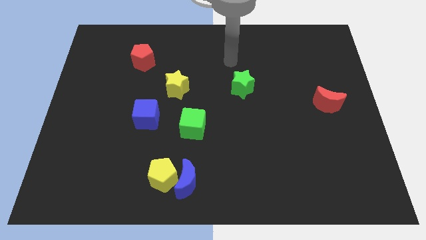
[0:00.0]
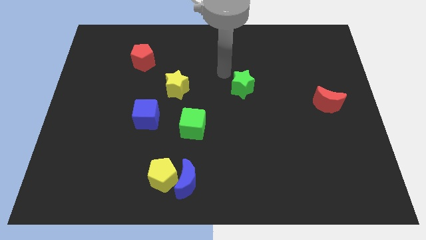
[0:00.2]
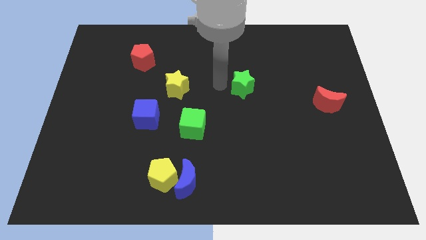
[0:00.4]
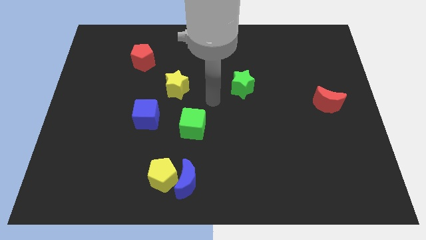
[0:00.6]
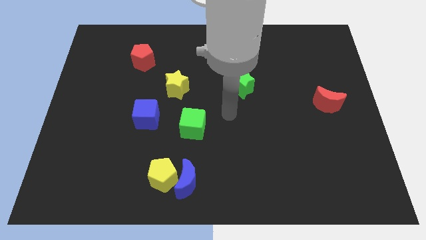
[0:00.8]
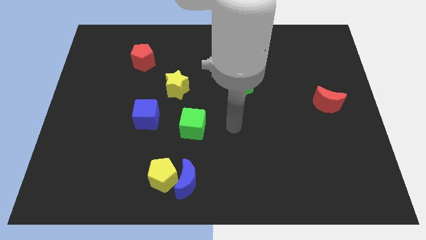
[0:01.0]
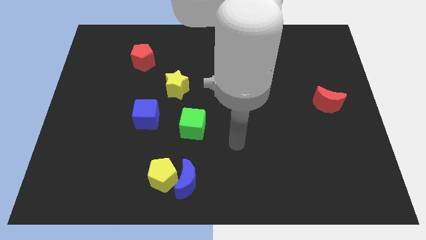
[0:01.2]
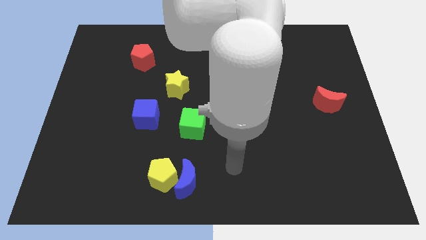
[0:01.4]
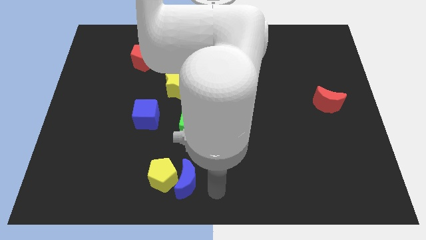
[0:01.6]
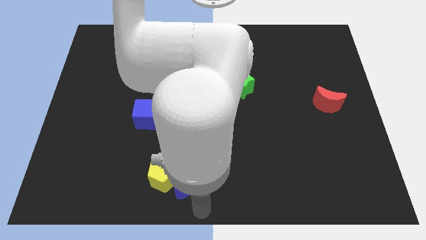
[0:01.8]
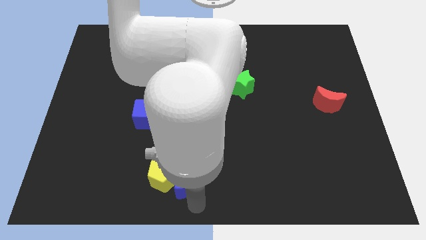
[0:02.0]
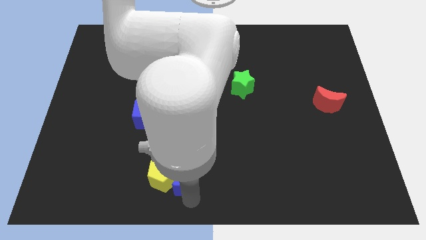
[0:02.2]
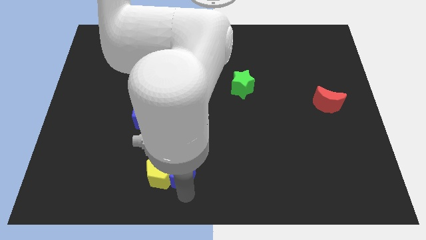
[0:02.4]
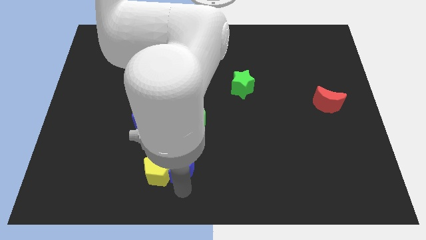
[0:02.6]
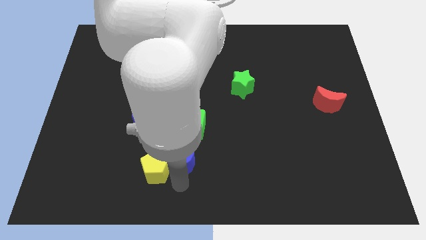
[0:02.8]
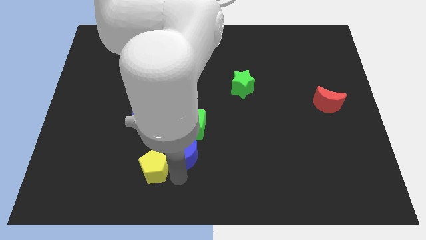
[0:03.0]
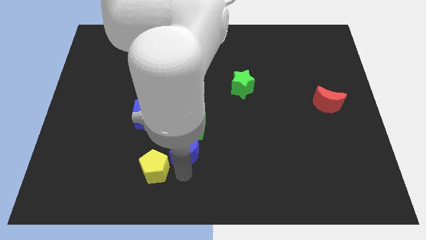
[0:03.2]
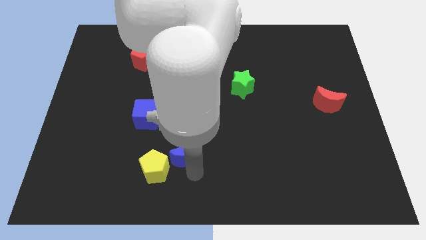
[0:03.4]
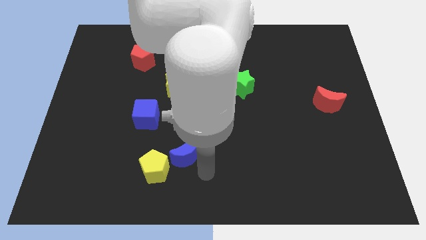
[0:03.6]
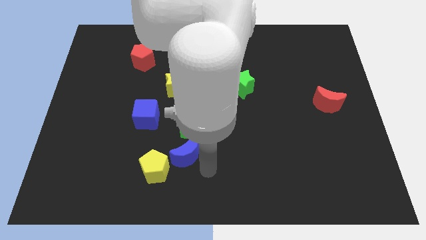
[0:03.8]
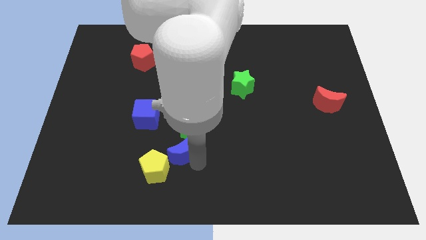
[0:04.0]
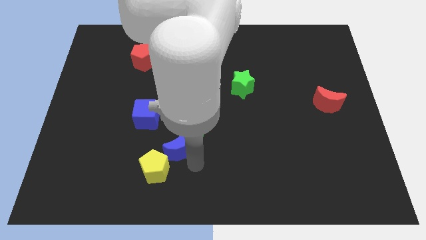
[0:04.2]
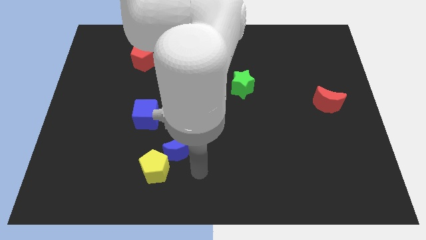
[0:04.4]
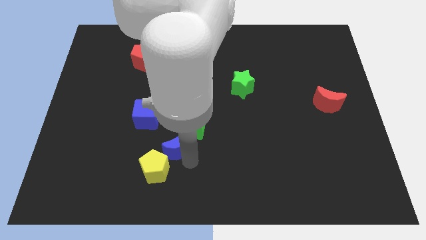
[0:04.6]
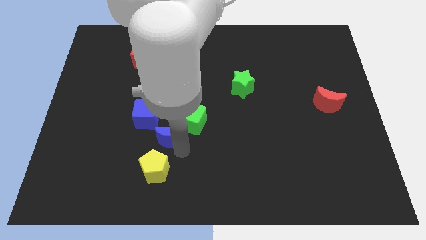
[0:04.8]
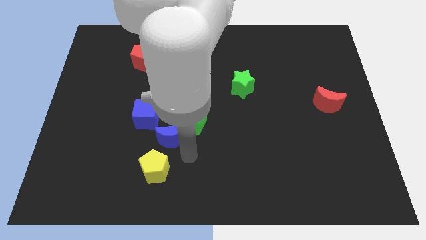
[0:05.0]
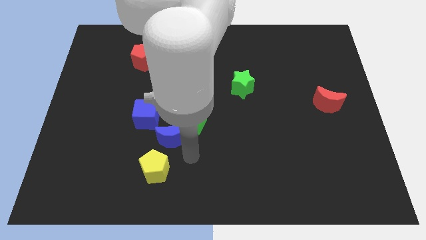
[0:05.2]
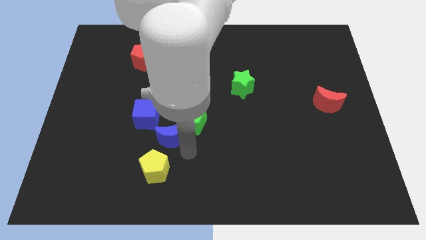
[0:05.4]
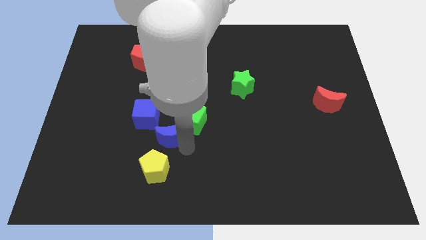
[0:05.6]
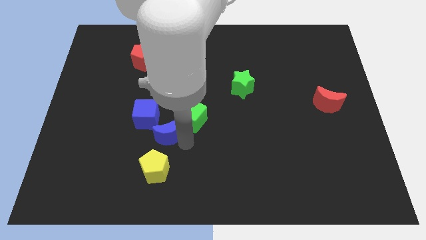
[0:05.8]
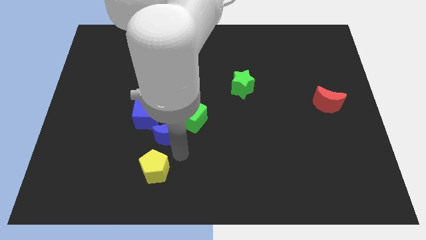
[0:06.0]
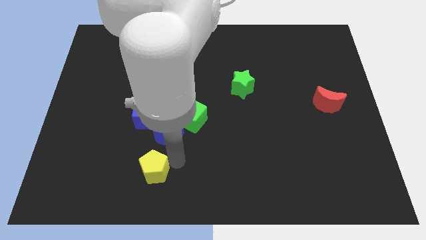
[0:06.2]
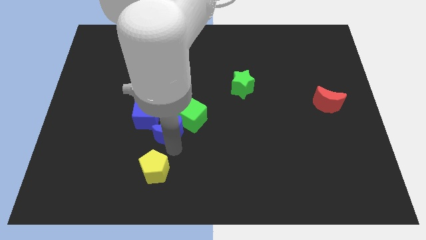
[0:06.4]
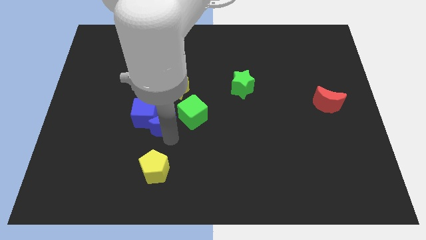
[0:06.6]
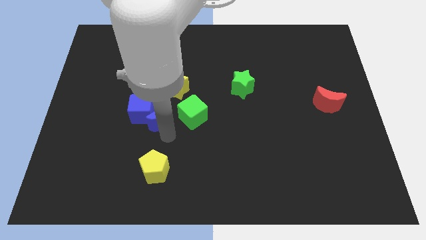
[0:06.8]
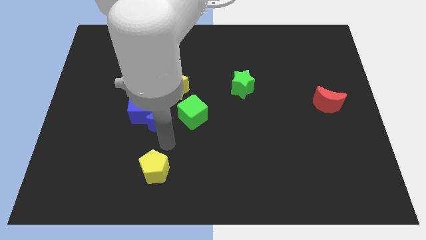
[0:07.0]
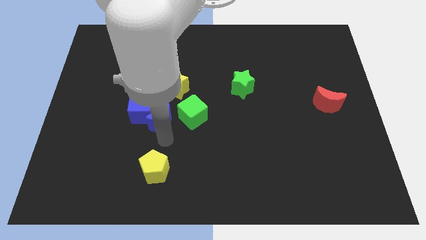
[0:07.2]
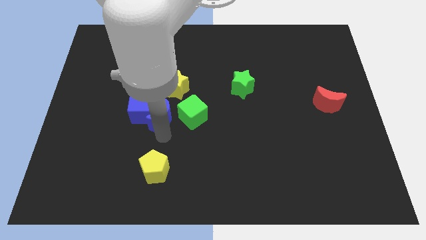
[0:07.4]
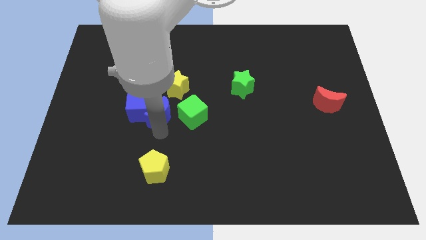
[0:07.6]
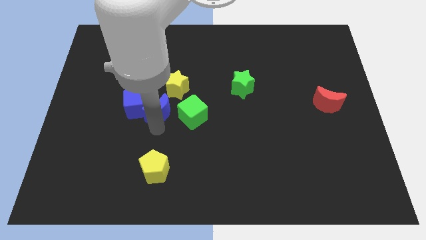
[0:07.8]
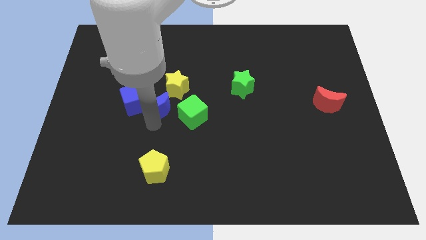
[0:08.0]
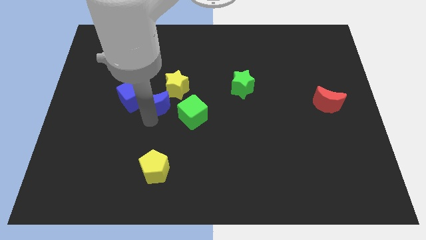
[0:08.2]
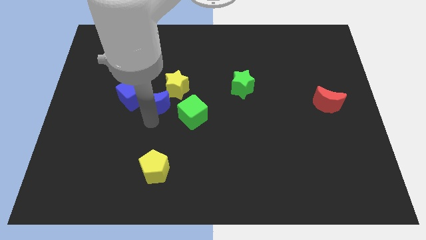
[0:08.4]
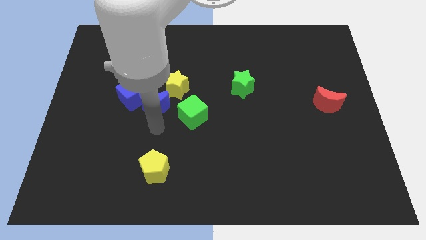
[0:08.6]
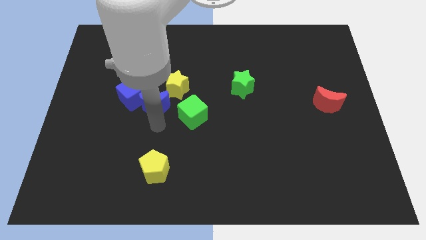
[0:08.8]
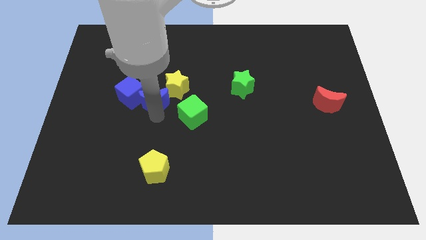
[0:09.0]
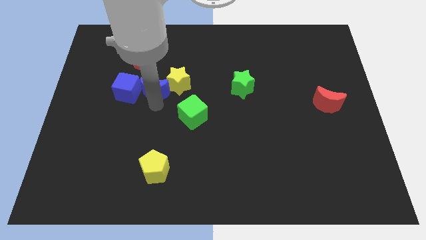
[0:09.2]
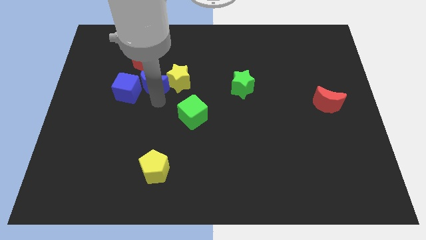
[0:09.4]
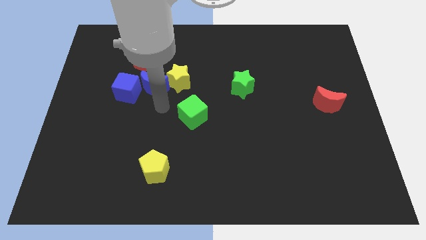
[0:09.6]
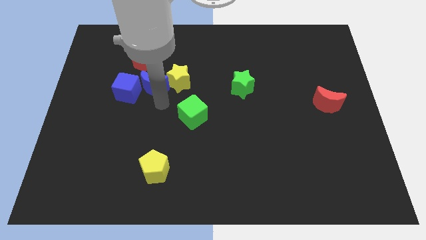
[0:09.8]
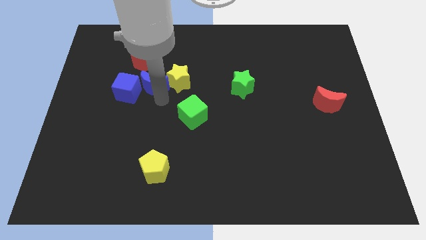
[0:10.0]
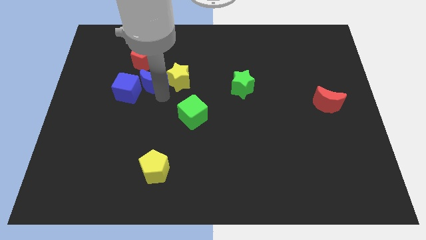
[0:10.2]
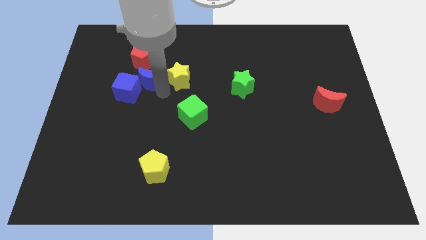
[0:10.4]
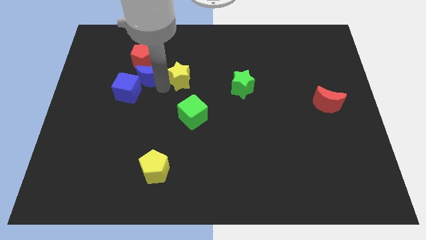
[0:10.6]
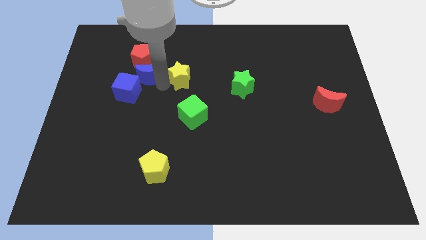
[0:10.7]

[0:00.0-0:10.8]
put the blue moon close to the red pentagon

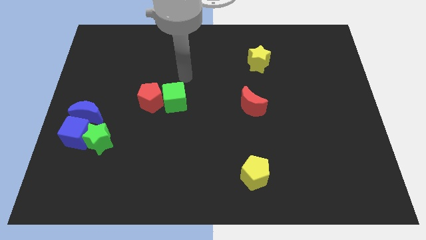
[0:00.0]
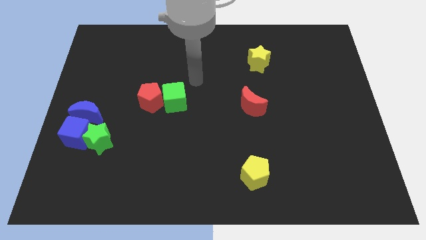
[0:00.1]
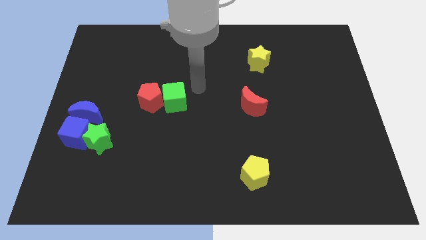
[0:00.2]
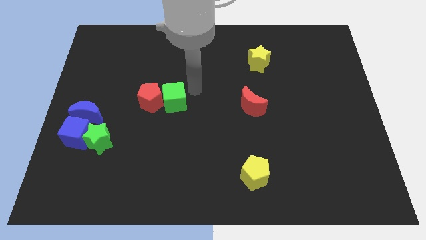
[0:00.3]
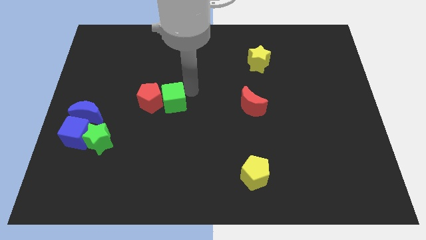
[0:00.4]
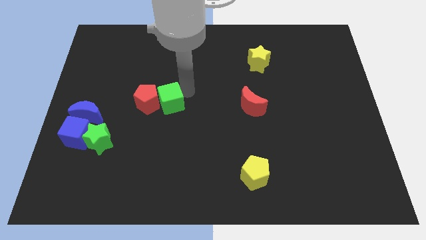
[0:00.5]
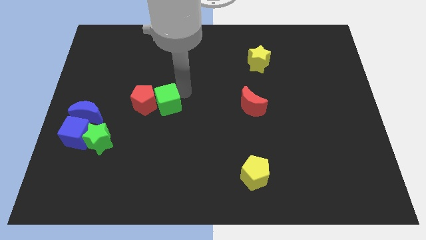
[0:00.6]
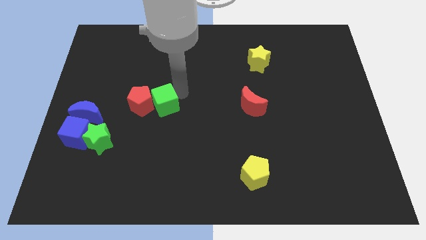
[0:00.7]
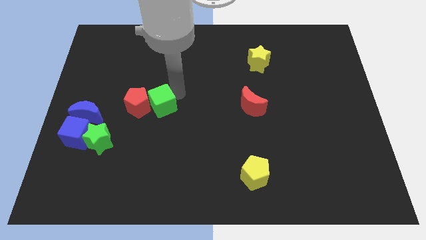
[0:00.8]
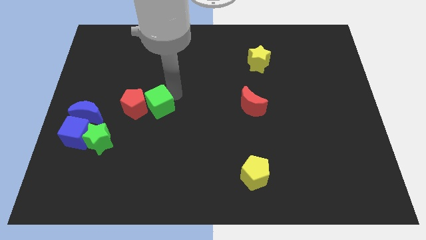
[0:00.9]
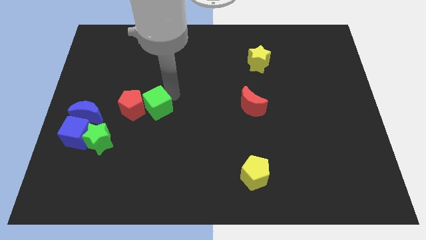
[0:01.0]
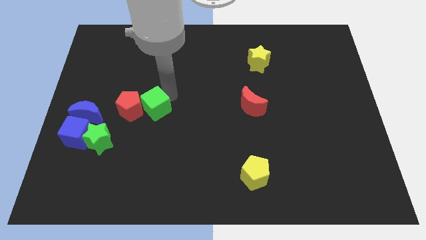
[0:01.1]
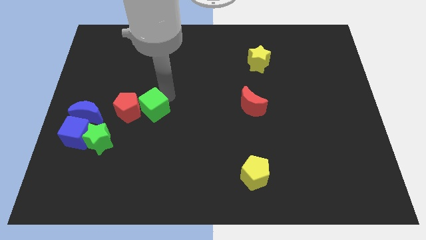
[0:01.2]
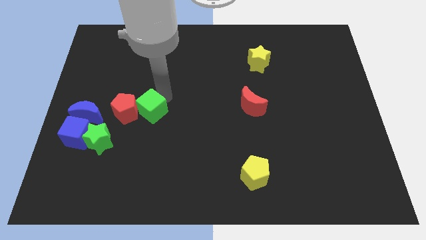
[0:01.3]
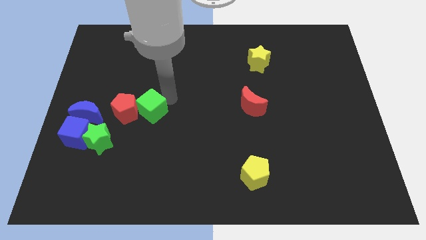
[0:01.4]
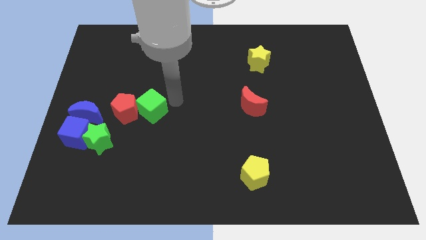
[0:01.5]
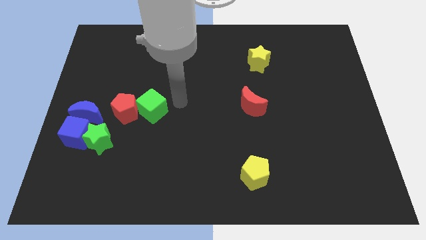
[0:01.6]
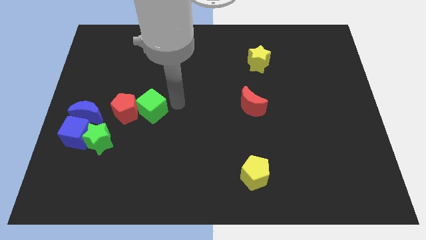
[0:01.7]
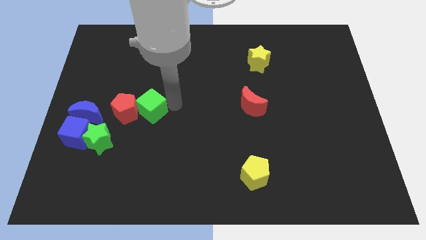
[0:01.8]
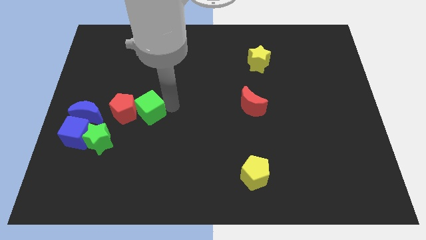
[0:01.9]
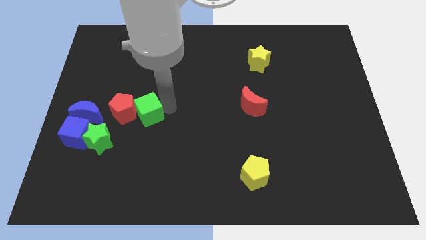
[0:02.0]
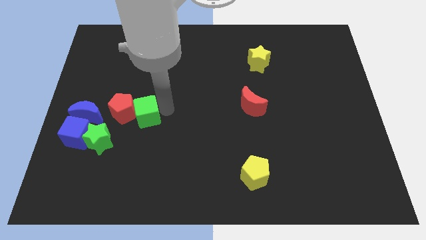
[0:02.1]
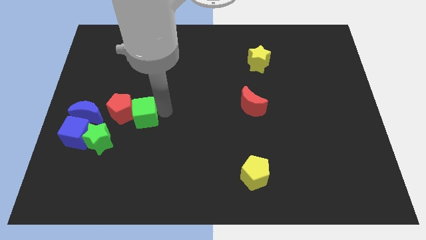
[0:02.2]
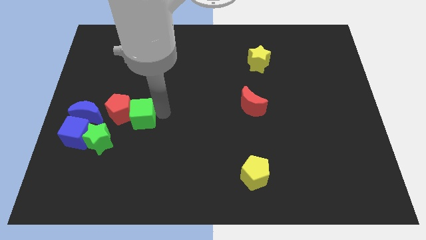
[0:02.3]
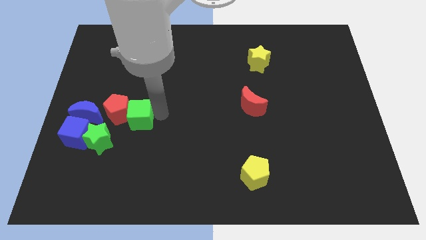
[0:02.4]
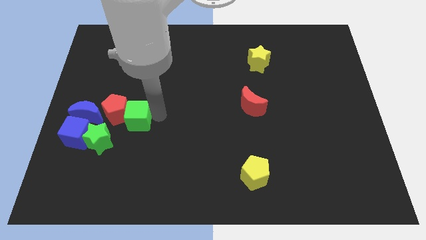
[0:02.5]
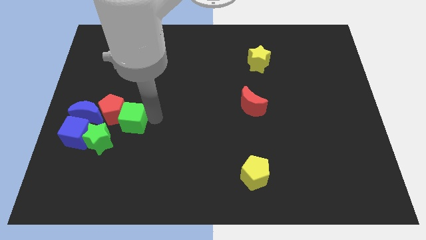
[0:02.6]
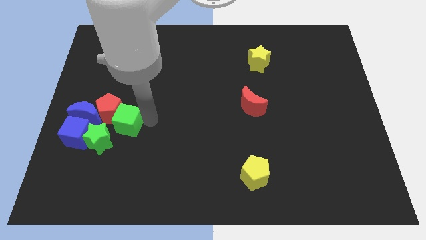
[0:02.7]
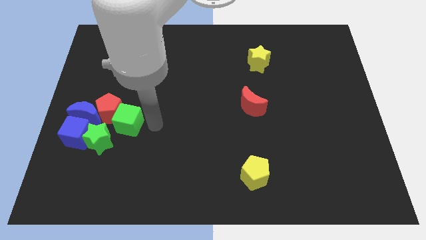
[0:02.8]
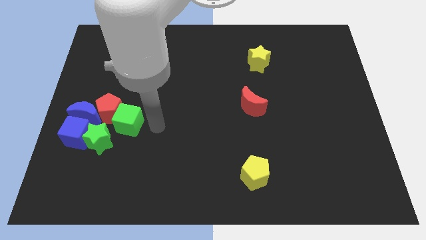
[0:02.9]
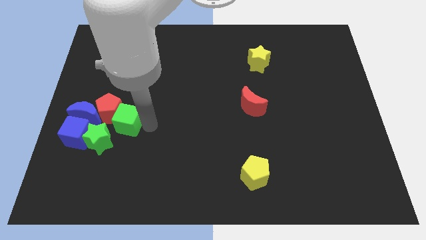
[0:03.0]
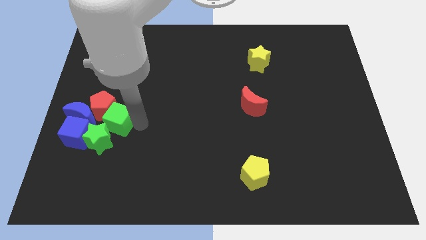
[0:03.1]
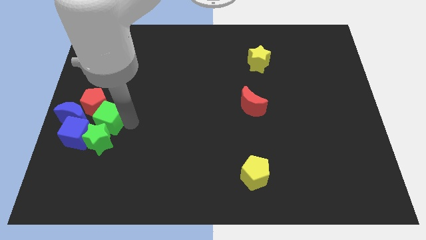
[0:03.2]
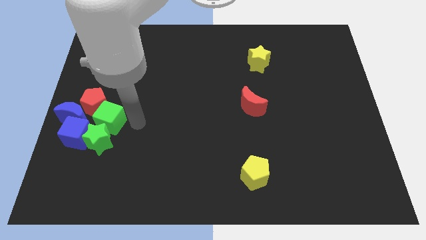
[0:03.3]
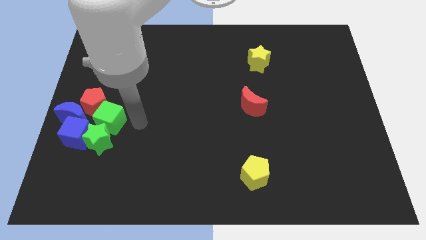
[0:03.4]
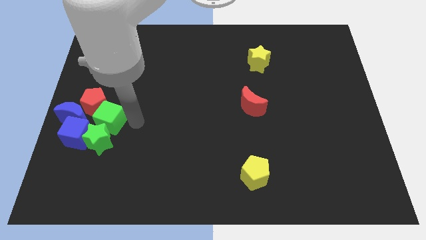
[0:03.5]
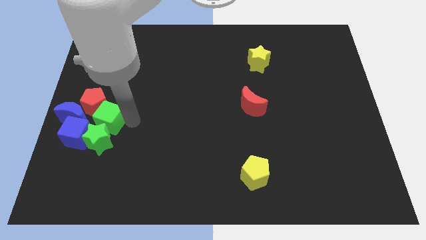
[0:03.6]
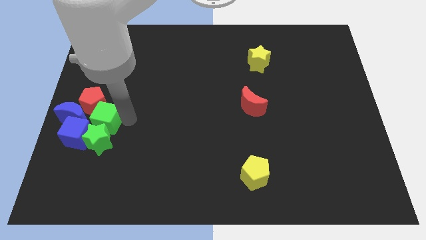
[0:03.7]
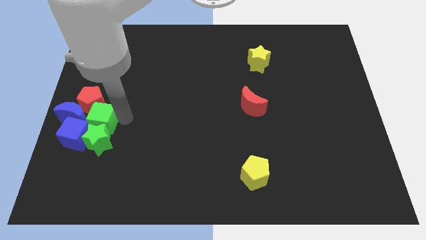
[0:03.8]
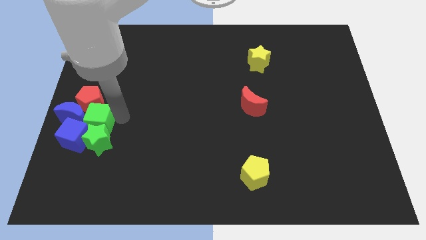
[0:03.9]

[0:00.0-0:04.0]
put the green cube to the blue moon
